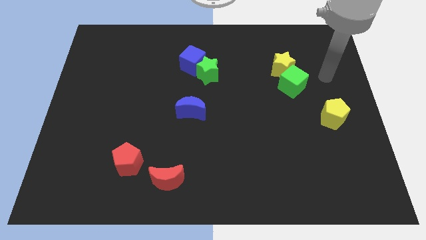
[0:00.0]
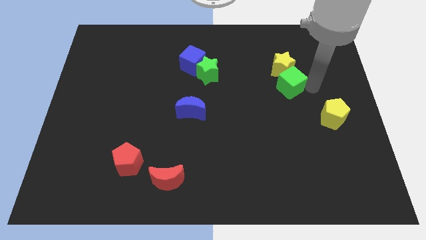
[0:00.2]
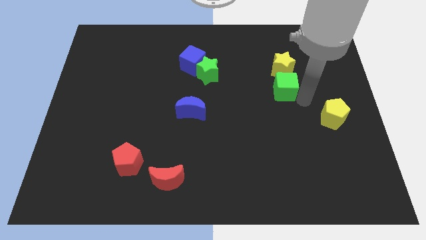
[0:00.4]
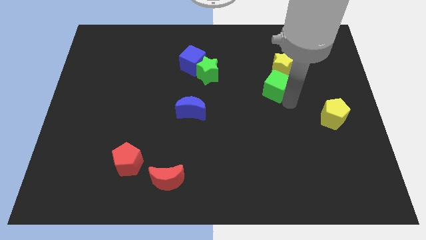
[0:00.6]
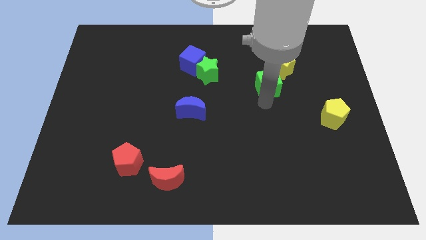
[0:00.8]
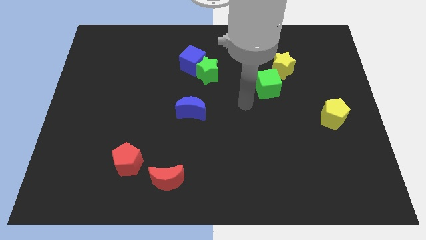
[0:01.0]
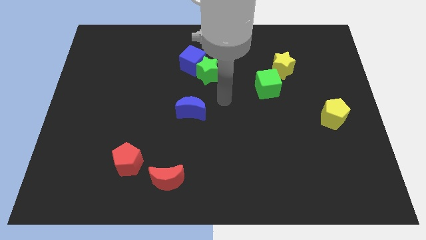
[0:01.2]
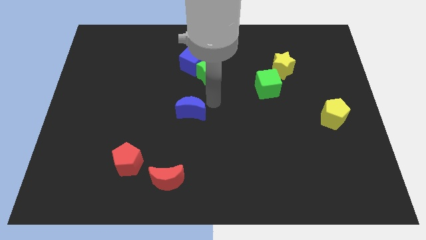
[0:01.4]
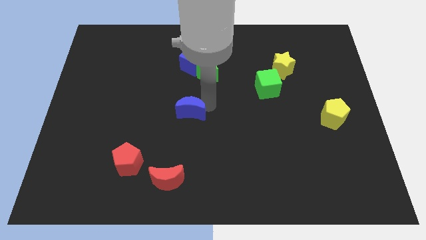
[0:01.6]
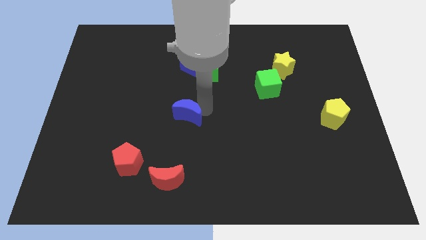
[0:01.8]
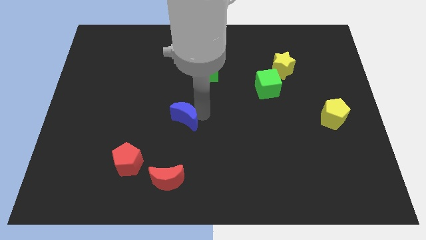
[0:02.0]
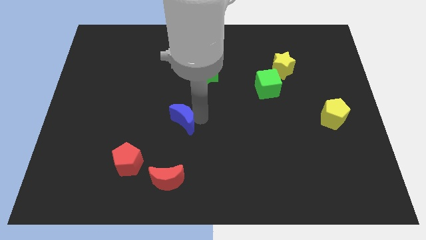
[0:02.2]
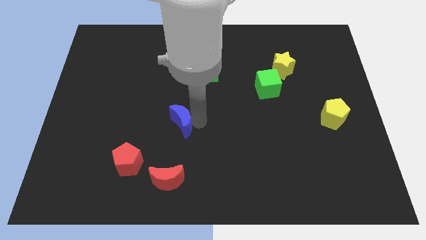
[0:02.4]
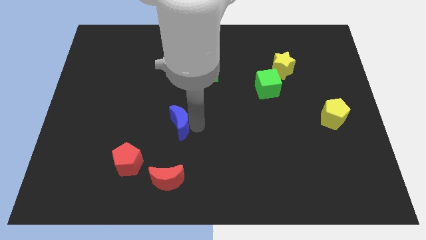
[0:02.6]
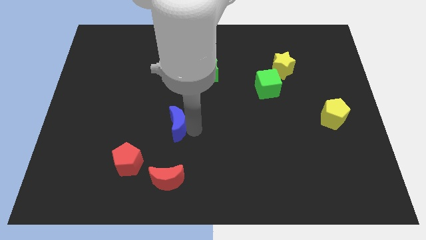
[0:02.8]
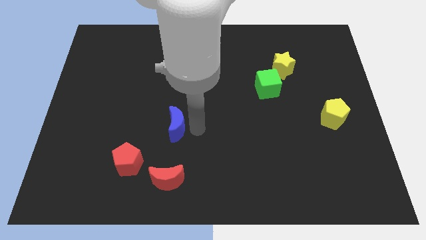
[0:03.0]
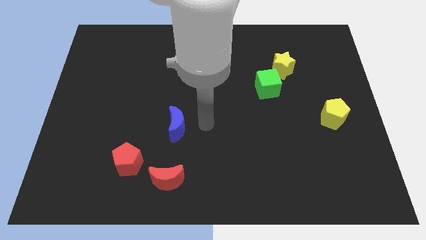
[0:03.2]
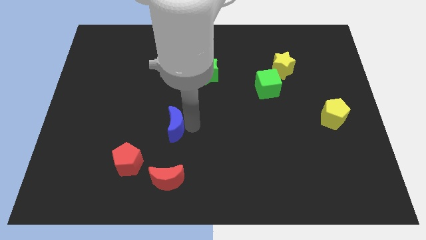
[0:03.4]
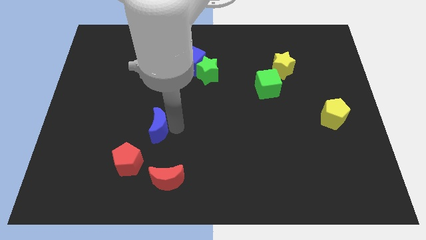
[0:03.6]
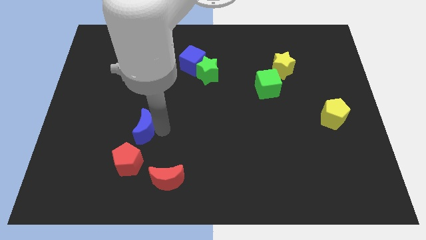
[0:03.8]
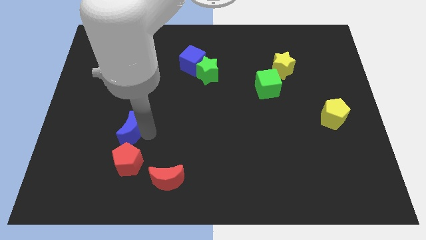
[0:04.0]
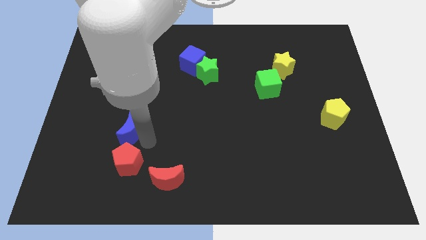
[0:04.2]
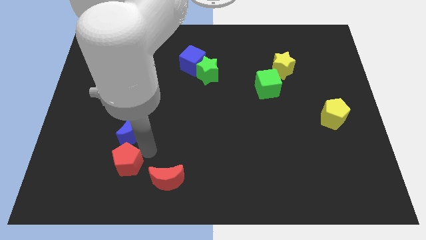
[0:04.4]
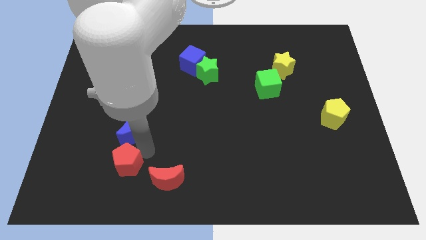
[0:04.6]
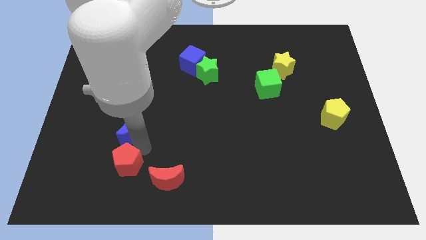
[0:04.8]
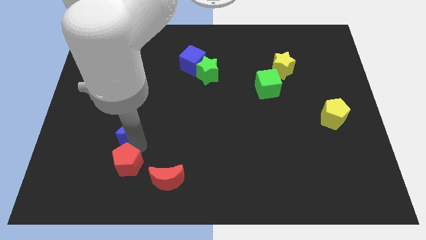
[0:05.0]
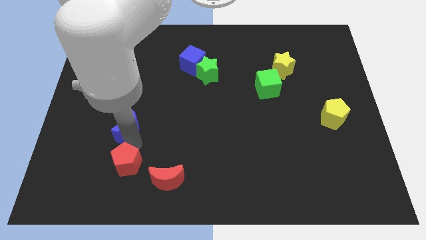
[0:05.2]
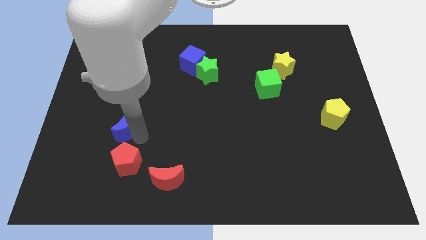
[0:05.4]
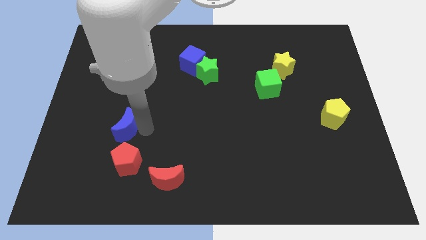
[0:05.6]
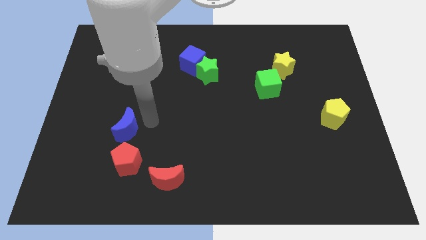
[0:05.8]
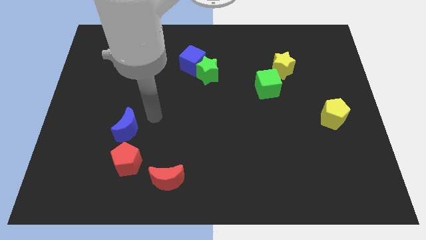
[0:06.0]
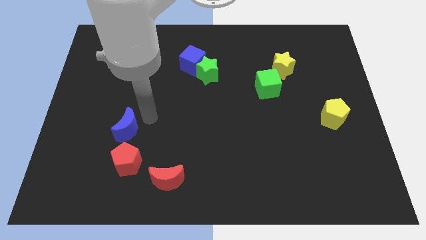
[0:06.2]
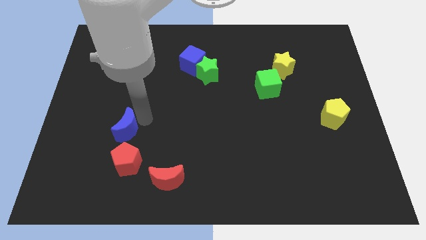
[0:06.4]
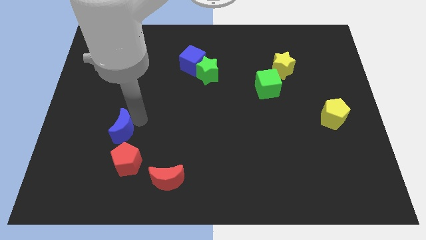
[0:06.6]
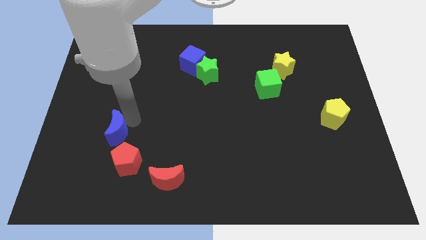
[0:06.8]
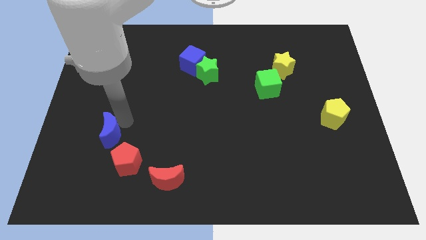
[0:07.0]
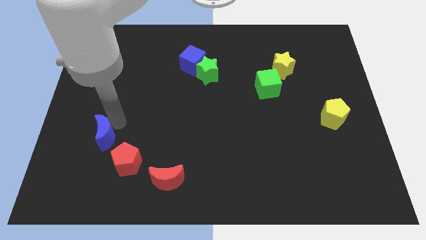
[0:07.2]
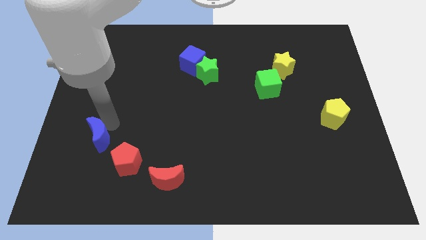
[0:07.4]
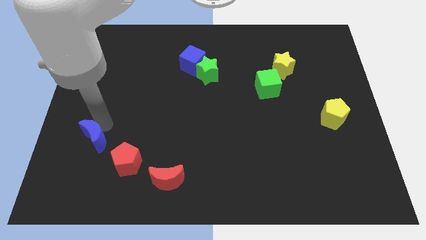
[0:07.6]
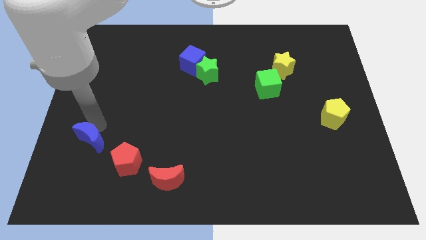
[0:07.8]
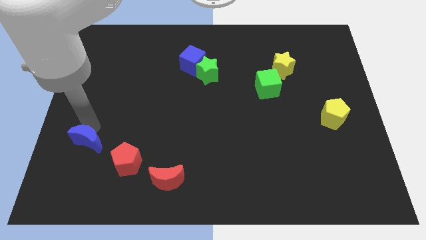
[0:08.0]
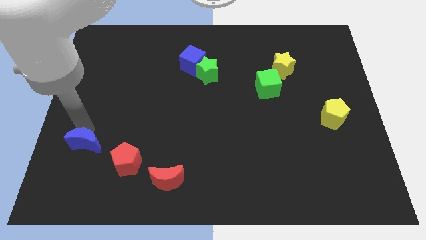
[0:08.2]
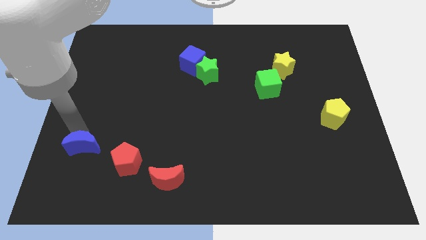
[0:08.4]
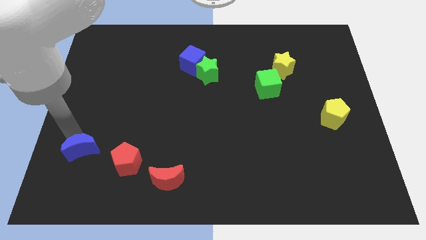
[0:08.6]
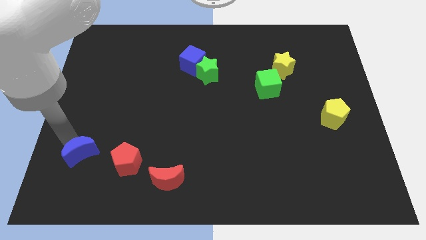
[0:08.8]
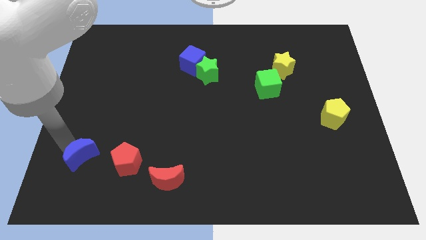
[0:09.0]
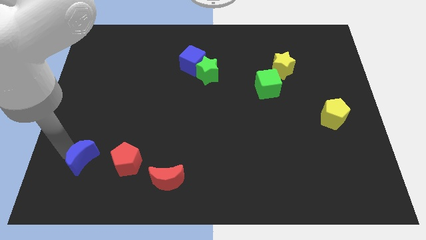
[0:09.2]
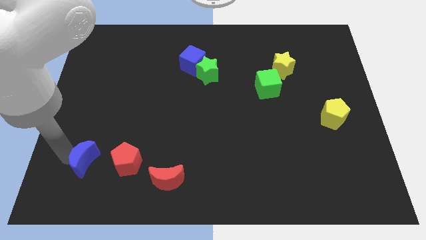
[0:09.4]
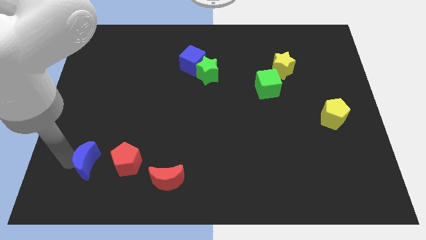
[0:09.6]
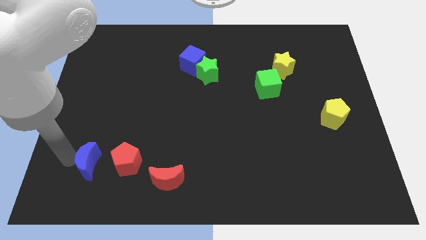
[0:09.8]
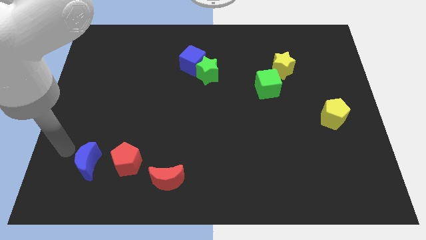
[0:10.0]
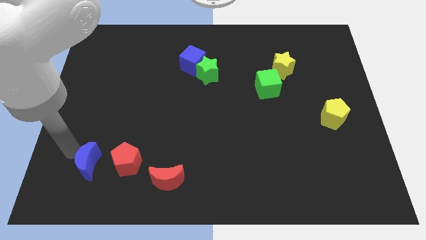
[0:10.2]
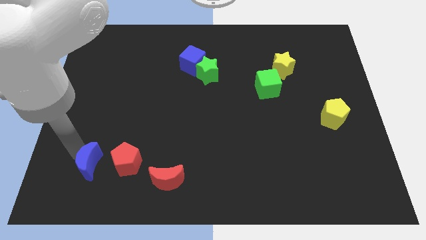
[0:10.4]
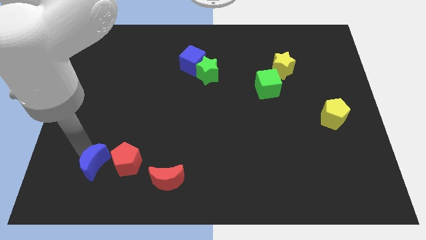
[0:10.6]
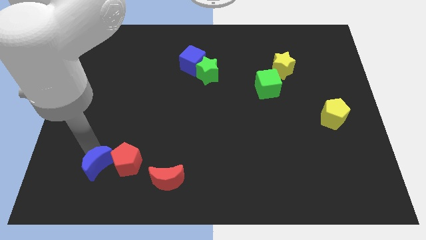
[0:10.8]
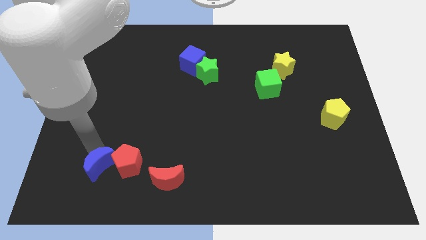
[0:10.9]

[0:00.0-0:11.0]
slide the blue moon just left of the red moon

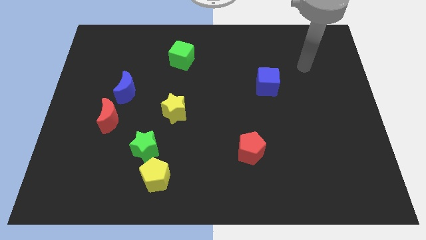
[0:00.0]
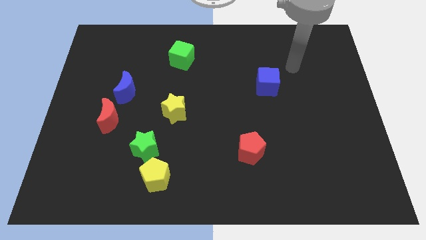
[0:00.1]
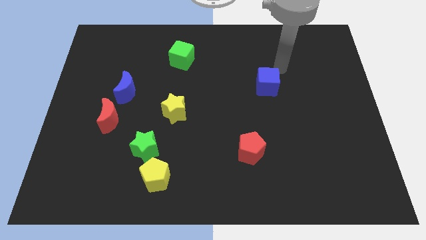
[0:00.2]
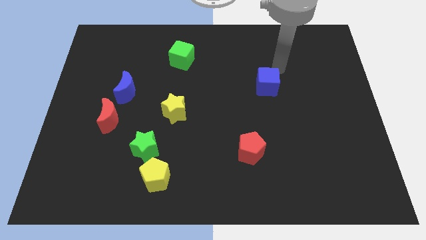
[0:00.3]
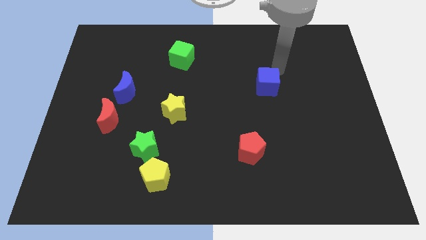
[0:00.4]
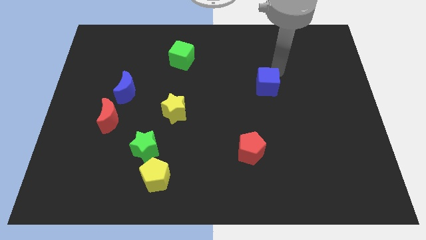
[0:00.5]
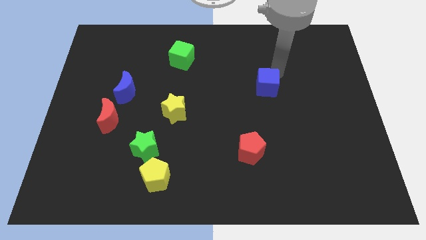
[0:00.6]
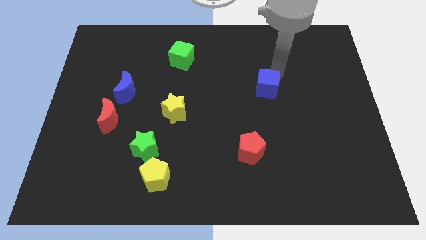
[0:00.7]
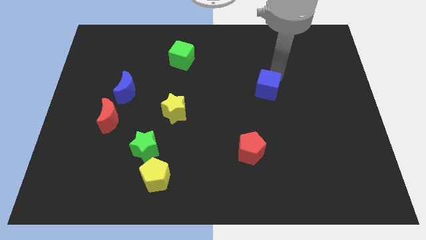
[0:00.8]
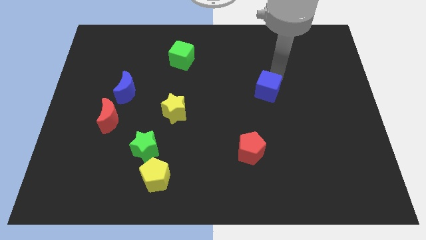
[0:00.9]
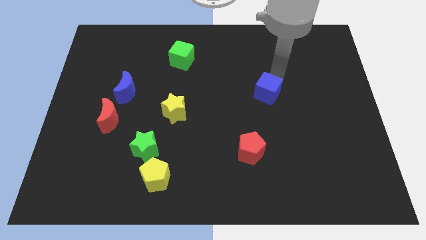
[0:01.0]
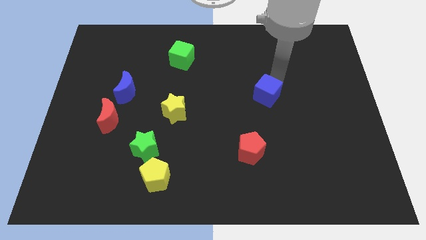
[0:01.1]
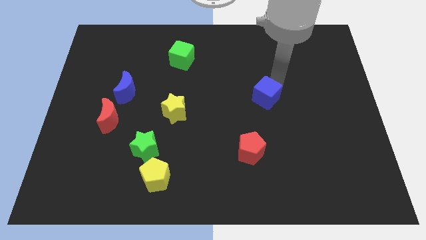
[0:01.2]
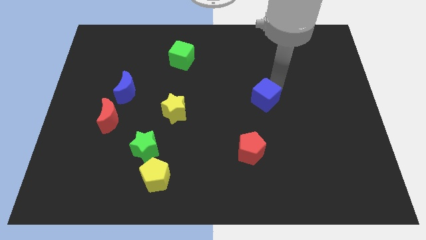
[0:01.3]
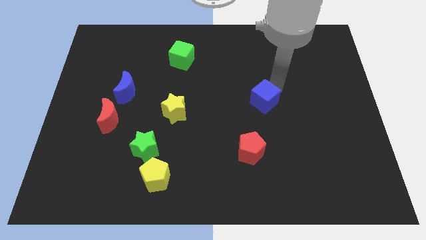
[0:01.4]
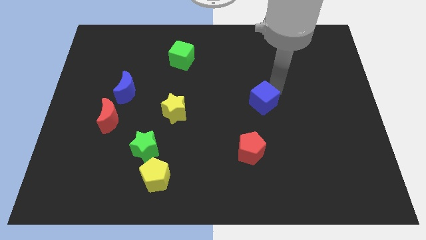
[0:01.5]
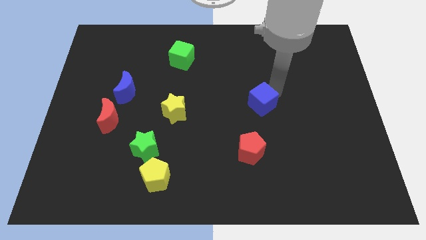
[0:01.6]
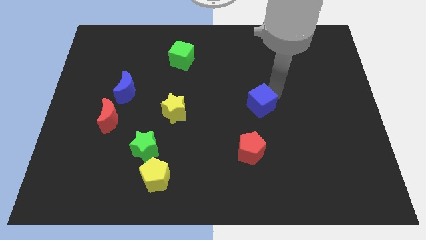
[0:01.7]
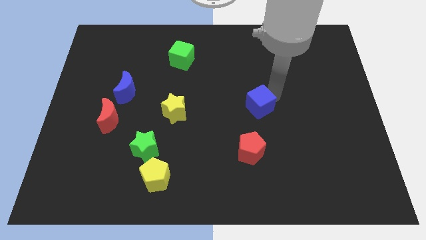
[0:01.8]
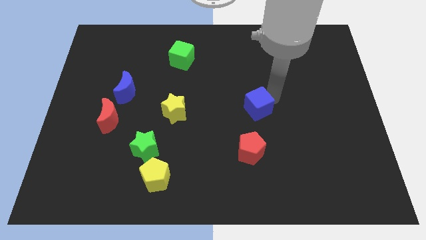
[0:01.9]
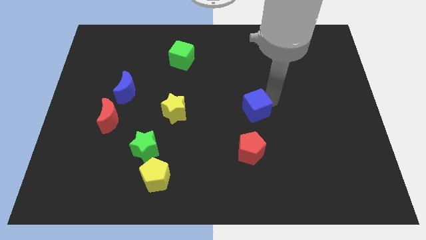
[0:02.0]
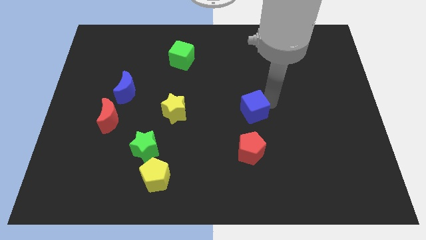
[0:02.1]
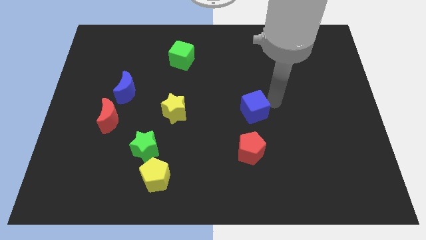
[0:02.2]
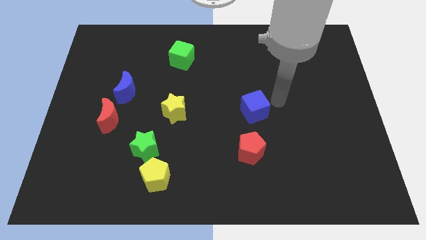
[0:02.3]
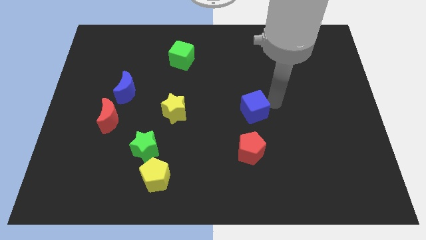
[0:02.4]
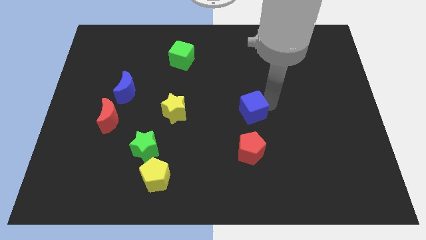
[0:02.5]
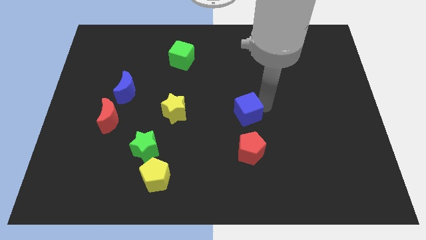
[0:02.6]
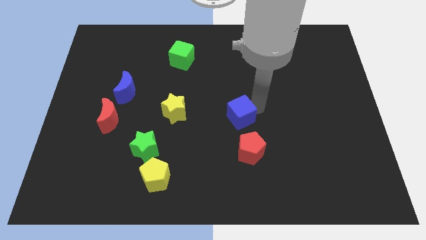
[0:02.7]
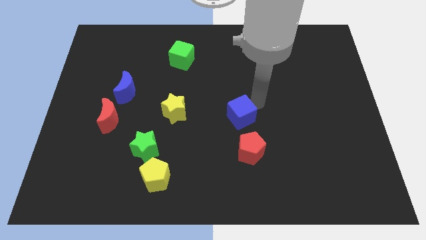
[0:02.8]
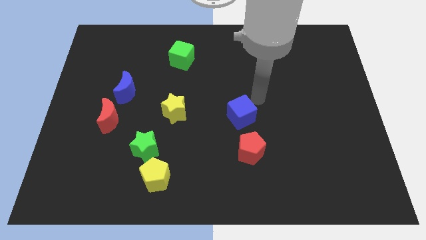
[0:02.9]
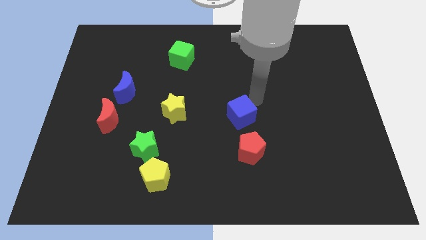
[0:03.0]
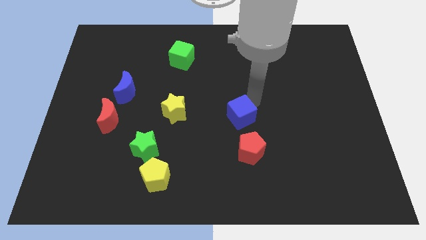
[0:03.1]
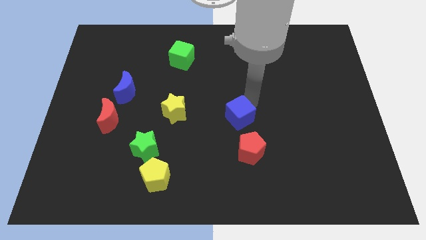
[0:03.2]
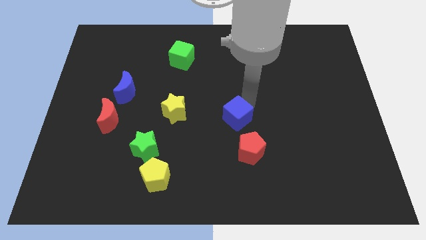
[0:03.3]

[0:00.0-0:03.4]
put the blue cube diagonally up and to the left of the red pentagon
